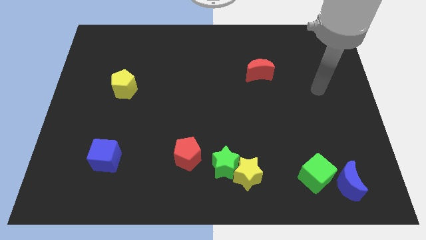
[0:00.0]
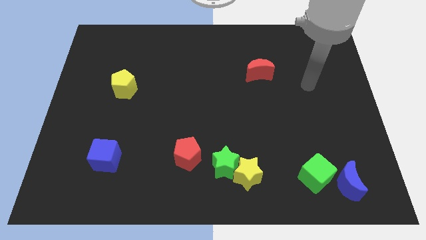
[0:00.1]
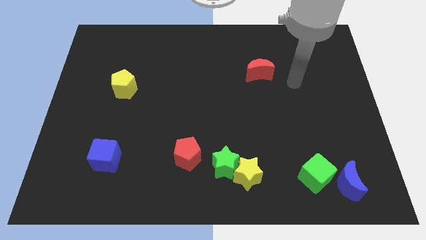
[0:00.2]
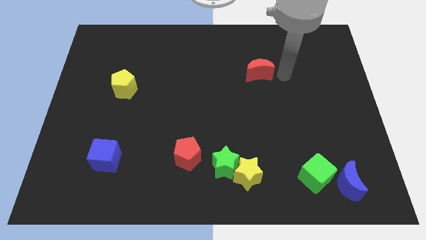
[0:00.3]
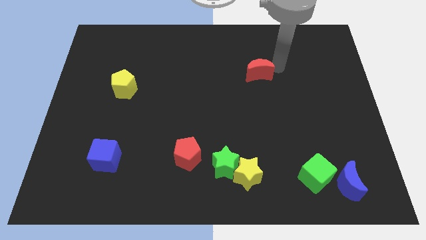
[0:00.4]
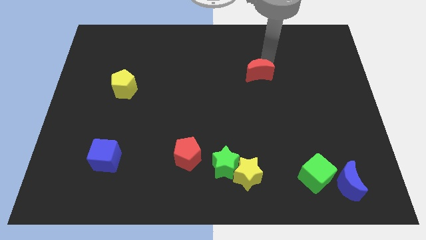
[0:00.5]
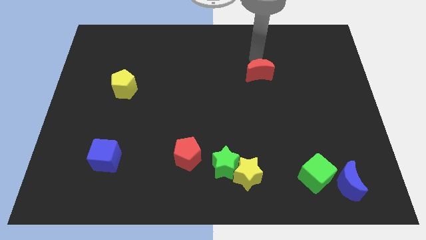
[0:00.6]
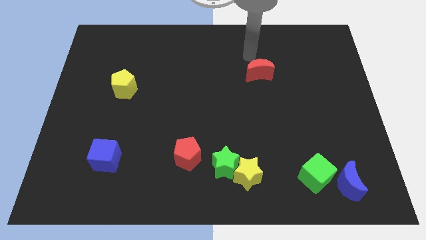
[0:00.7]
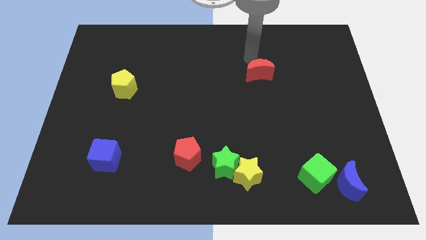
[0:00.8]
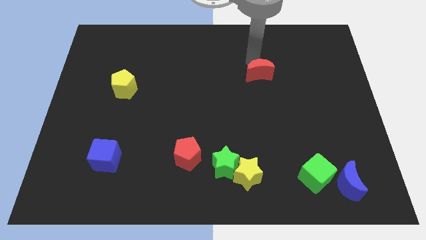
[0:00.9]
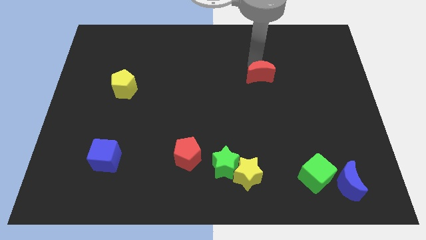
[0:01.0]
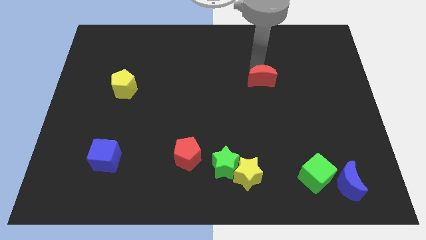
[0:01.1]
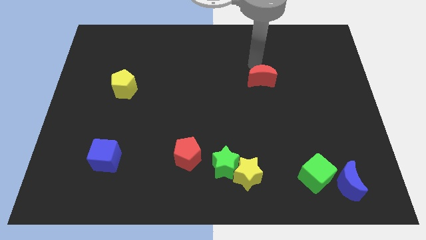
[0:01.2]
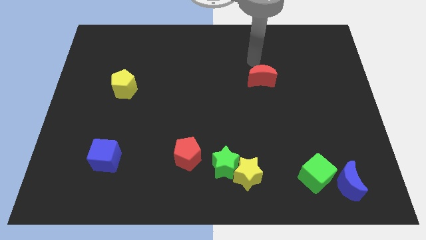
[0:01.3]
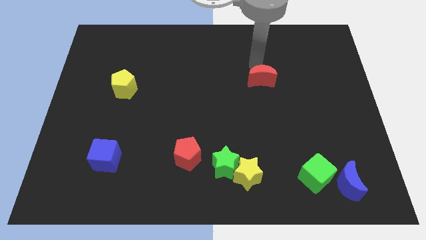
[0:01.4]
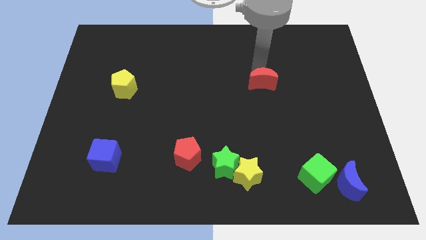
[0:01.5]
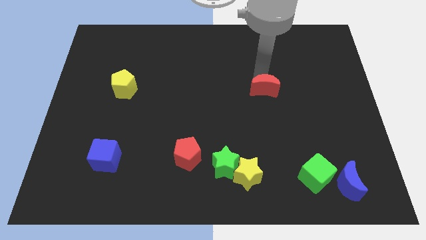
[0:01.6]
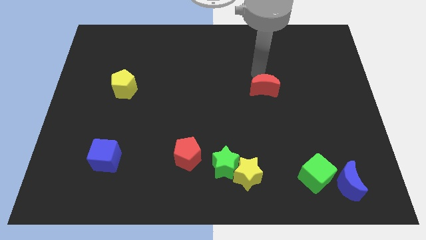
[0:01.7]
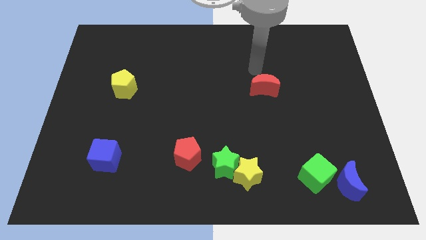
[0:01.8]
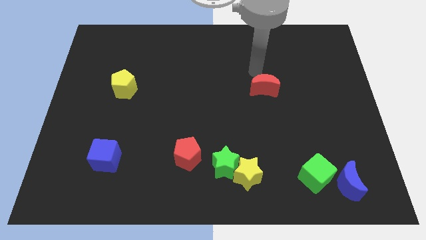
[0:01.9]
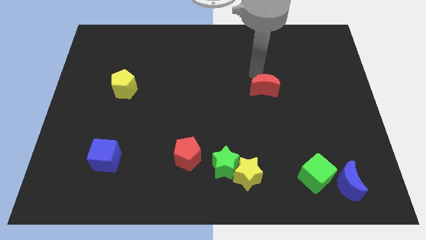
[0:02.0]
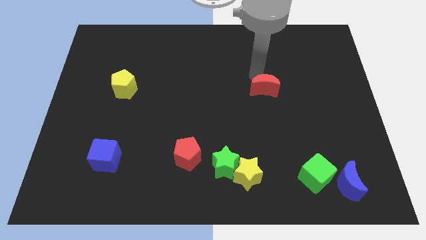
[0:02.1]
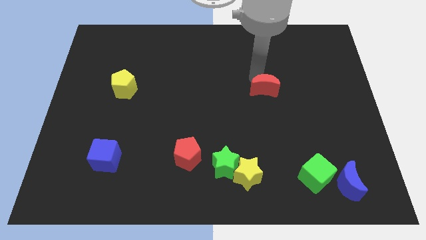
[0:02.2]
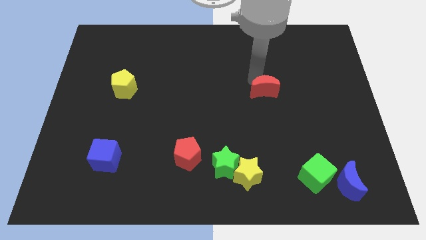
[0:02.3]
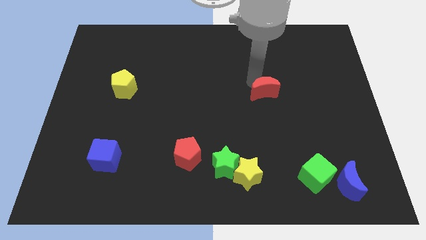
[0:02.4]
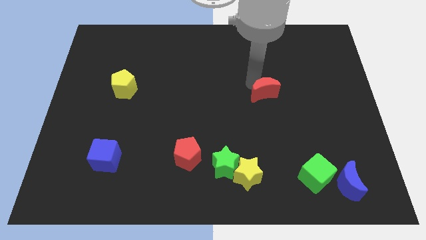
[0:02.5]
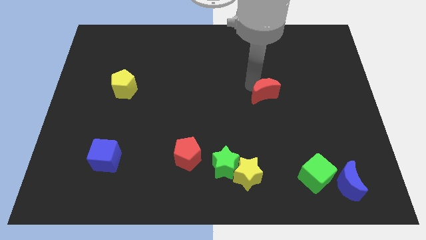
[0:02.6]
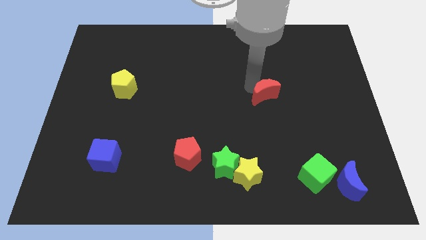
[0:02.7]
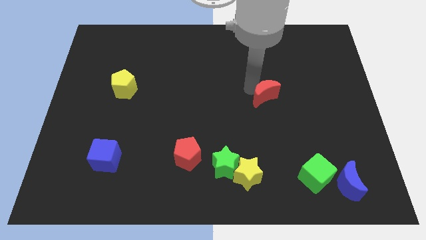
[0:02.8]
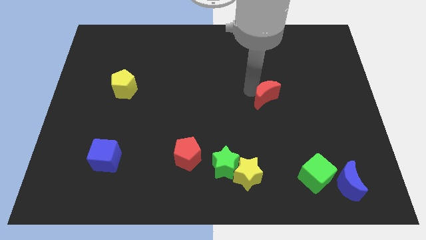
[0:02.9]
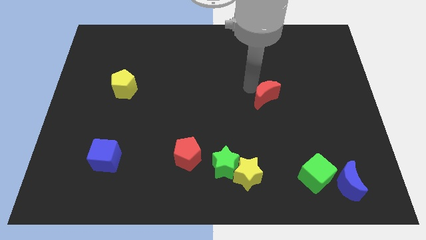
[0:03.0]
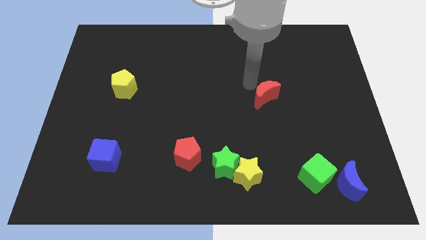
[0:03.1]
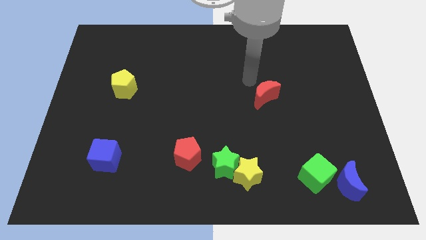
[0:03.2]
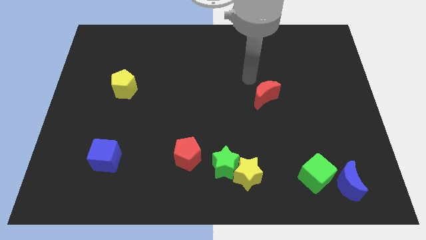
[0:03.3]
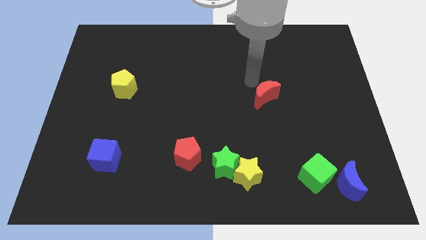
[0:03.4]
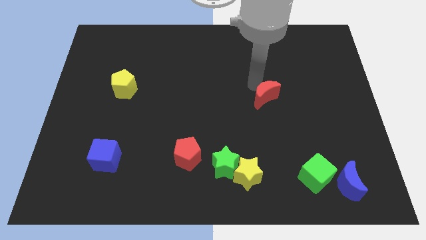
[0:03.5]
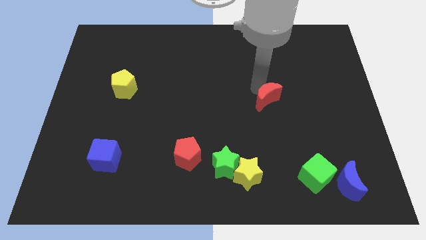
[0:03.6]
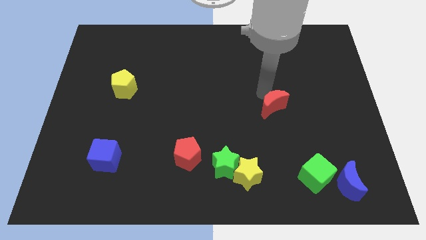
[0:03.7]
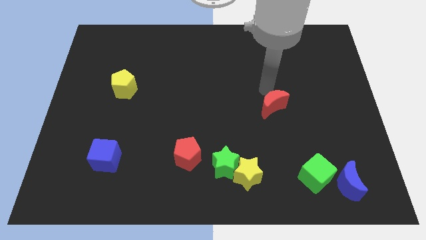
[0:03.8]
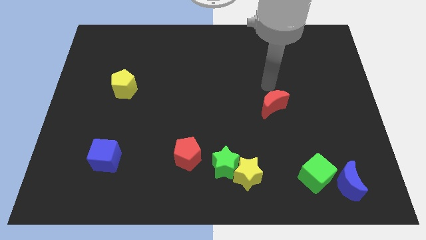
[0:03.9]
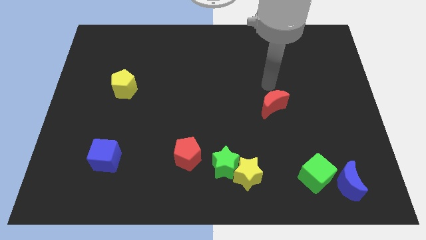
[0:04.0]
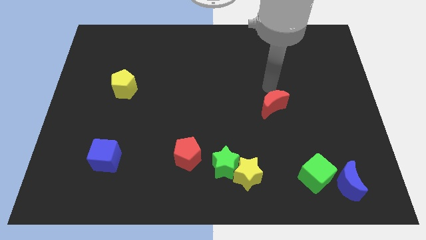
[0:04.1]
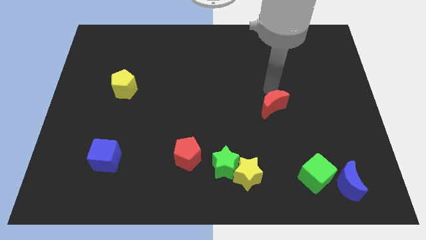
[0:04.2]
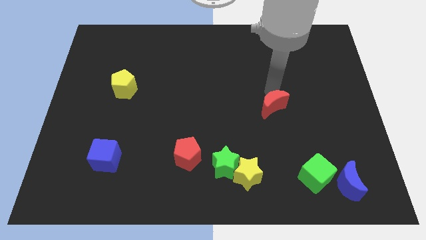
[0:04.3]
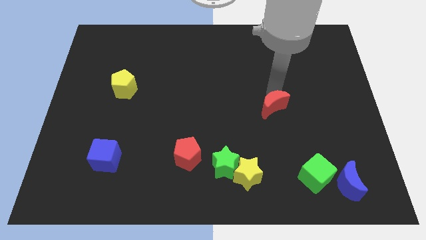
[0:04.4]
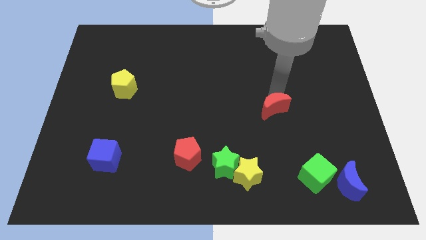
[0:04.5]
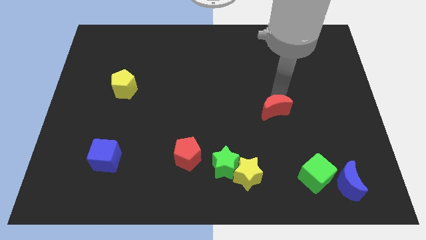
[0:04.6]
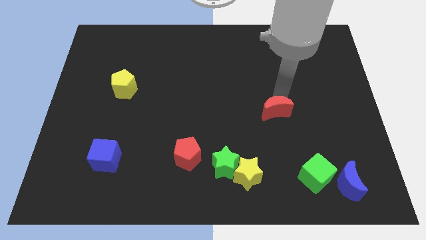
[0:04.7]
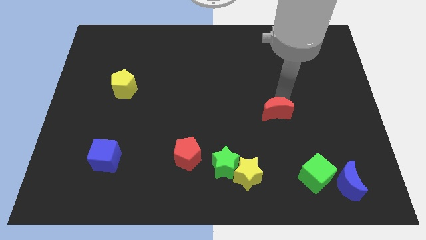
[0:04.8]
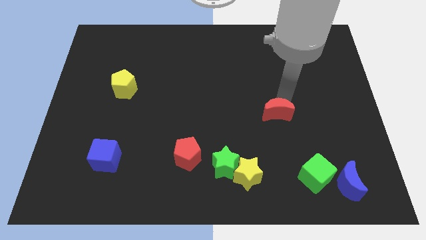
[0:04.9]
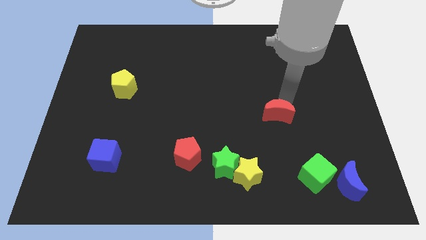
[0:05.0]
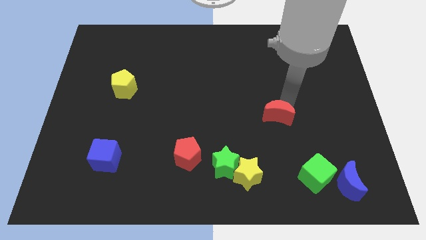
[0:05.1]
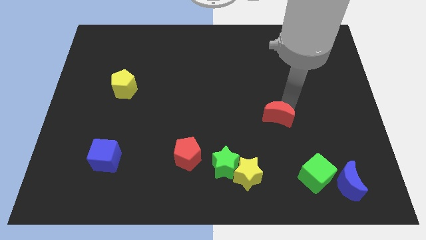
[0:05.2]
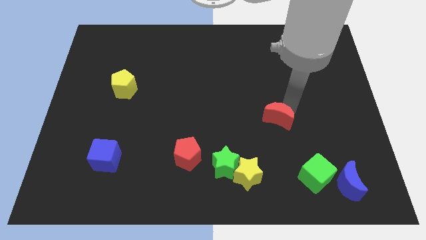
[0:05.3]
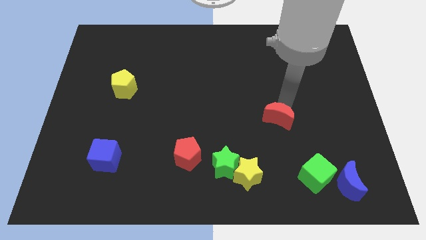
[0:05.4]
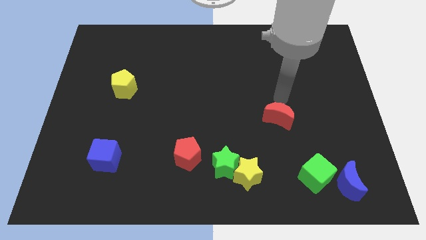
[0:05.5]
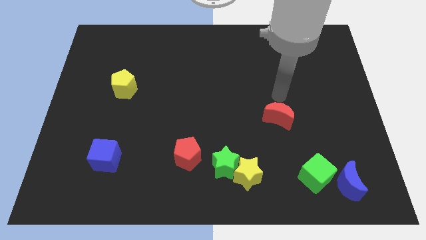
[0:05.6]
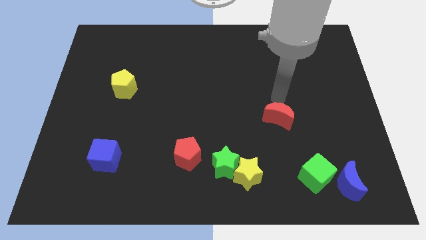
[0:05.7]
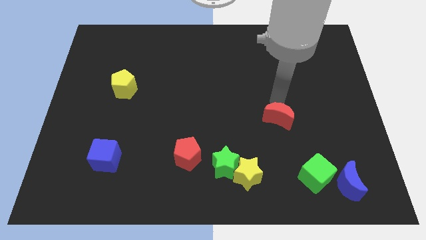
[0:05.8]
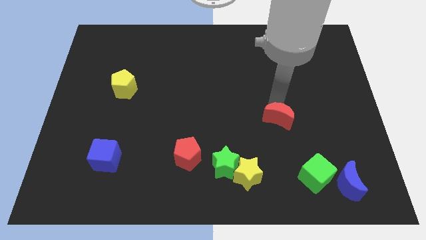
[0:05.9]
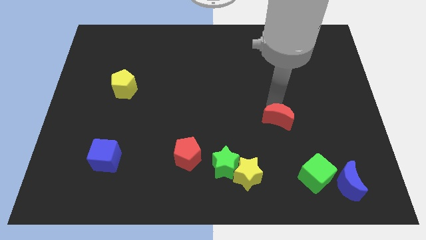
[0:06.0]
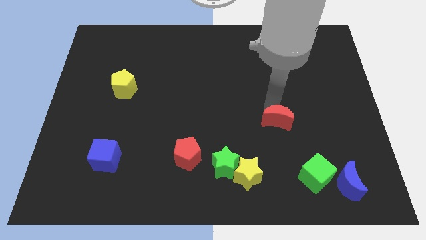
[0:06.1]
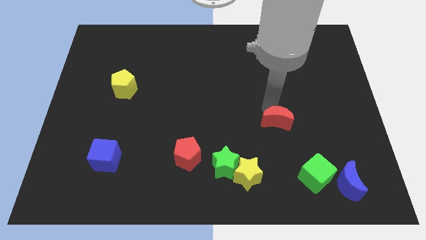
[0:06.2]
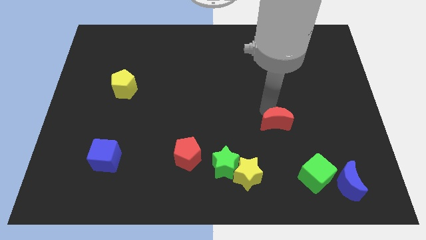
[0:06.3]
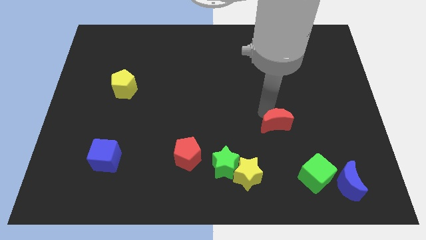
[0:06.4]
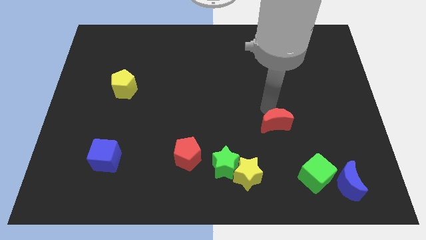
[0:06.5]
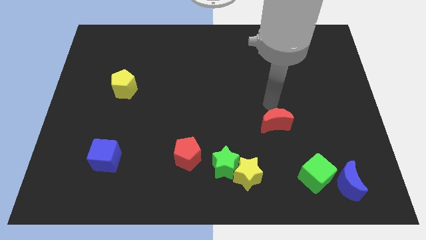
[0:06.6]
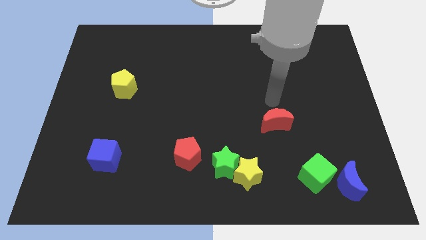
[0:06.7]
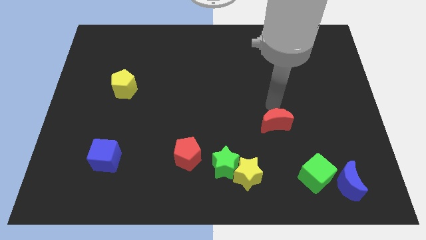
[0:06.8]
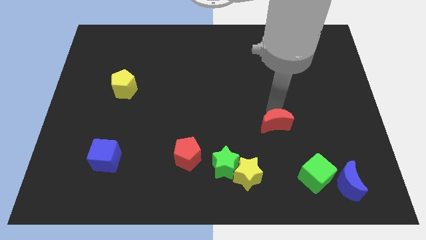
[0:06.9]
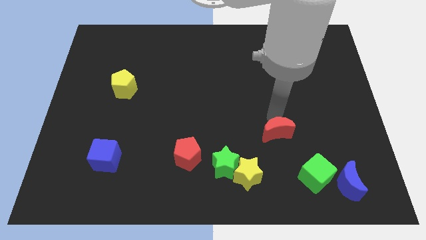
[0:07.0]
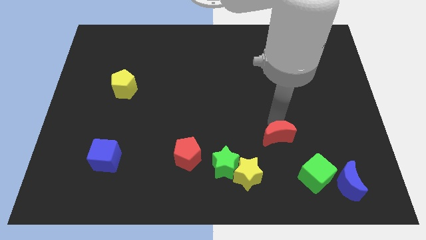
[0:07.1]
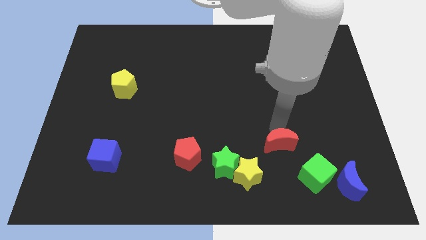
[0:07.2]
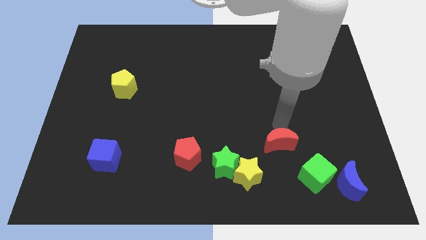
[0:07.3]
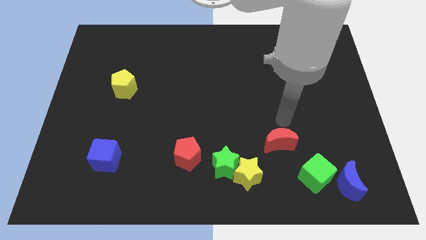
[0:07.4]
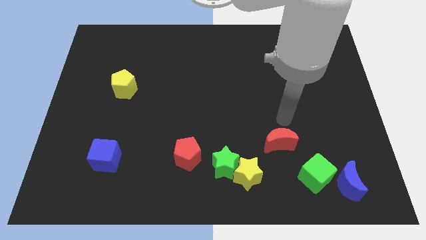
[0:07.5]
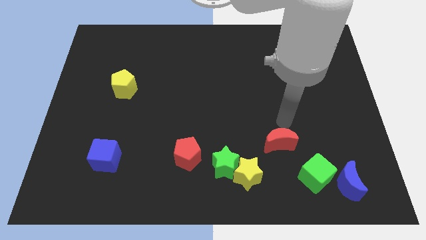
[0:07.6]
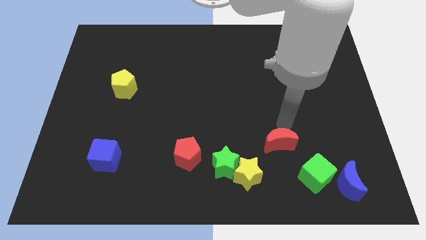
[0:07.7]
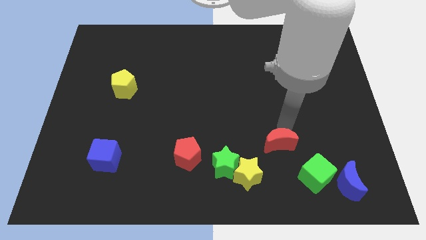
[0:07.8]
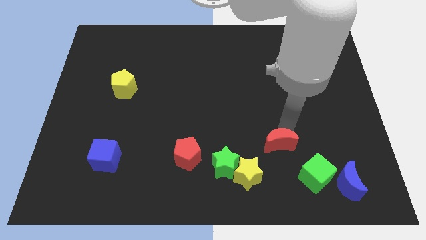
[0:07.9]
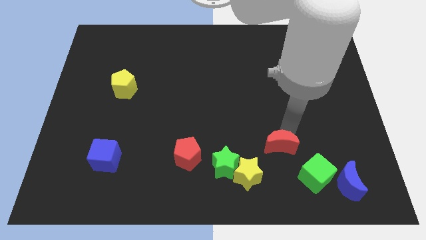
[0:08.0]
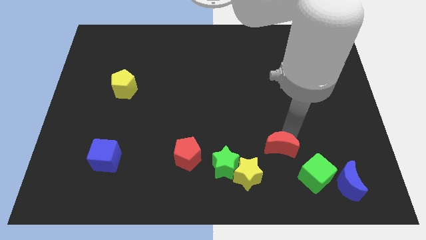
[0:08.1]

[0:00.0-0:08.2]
push the red moon right of the green star
